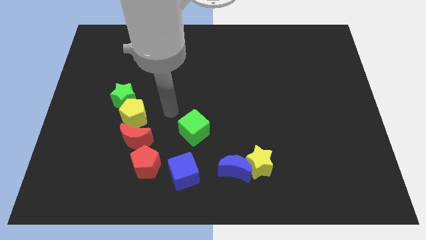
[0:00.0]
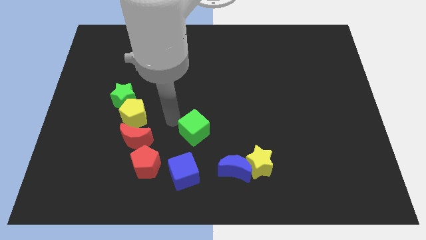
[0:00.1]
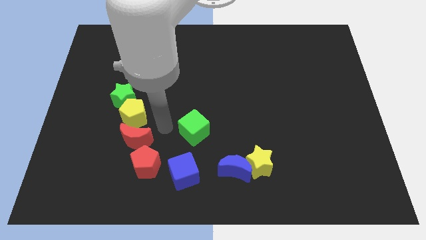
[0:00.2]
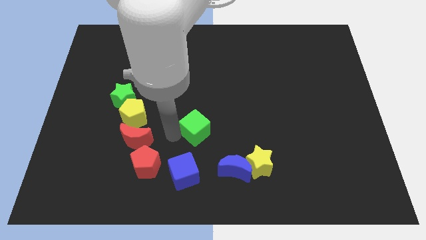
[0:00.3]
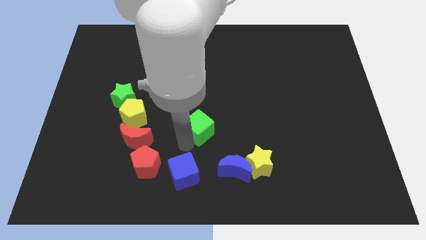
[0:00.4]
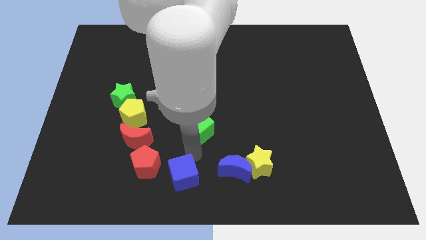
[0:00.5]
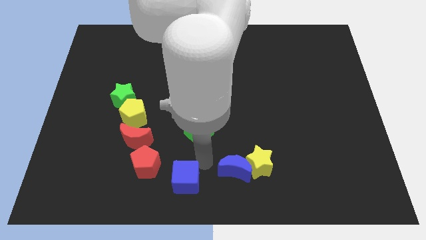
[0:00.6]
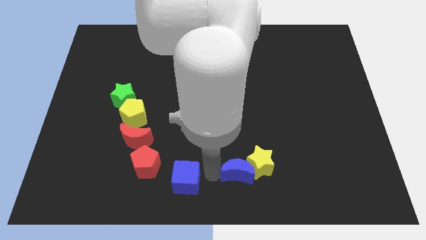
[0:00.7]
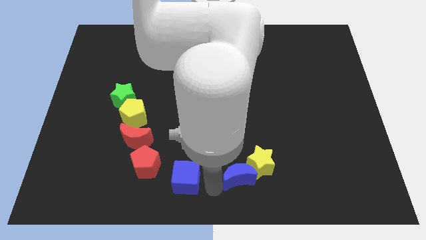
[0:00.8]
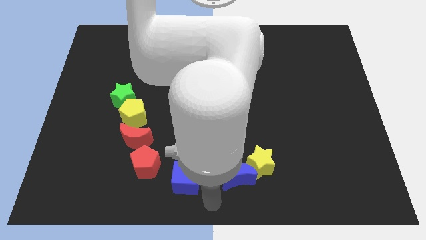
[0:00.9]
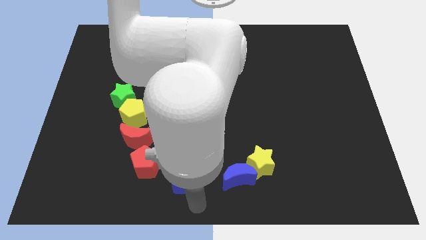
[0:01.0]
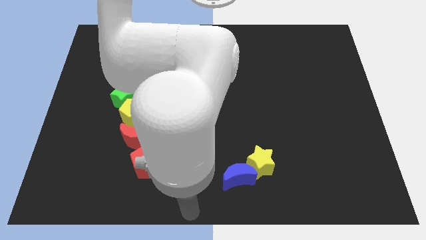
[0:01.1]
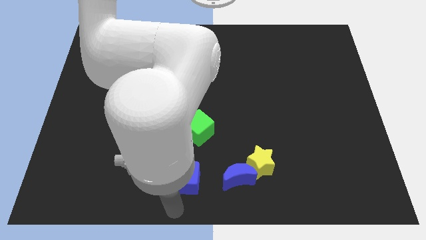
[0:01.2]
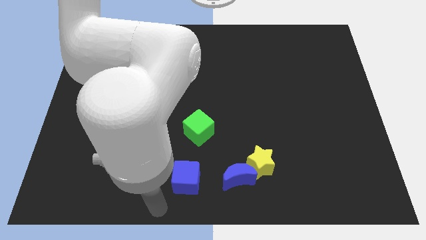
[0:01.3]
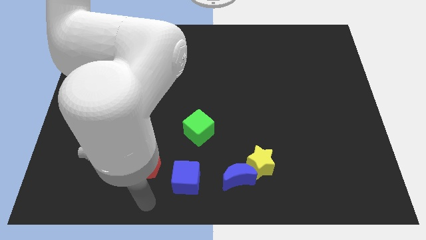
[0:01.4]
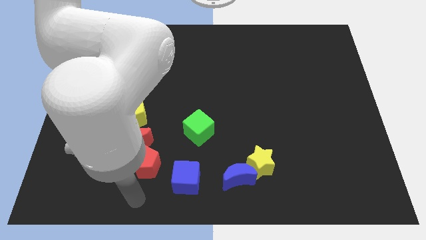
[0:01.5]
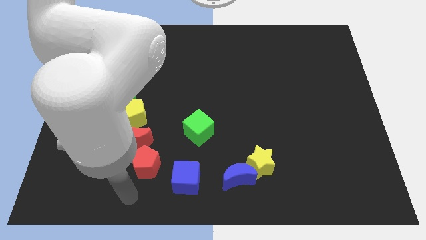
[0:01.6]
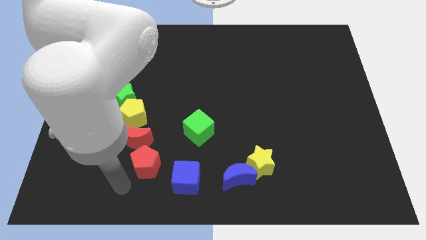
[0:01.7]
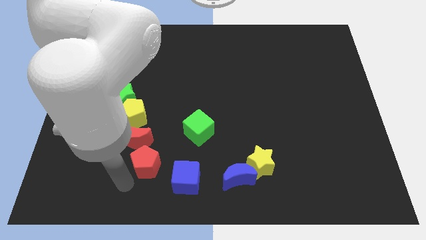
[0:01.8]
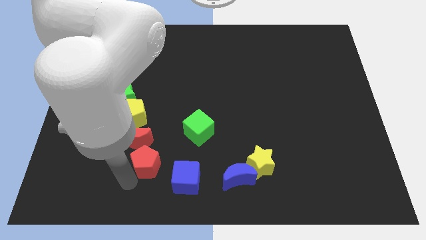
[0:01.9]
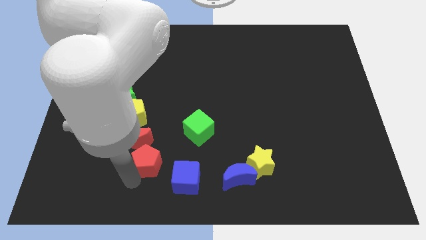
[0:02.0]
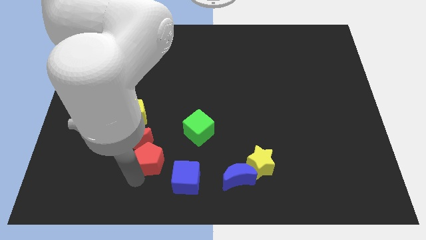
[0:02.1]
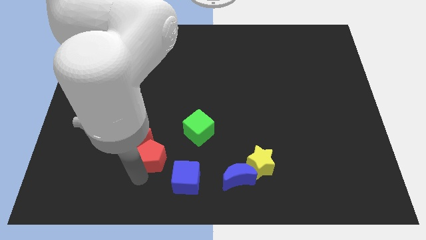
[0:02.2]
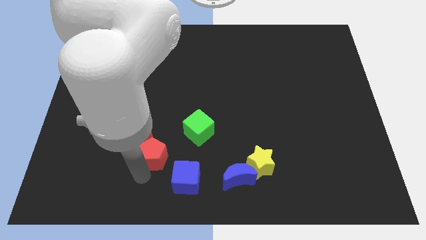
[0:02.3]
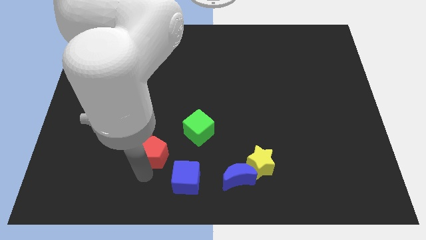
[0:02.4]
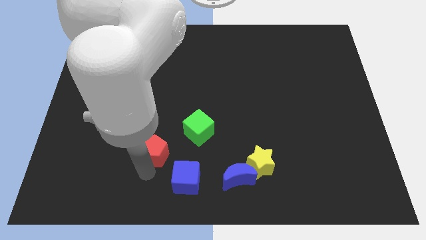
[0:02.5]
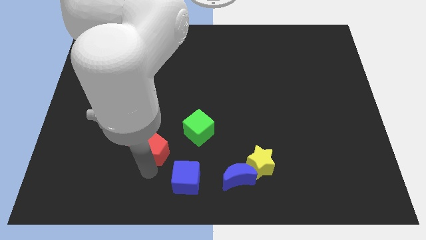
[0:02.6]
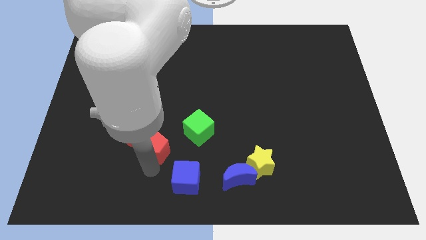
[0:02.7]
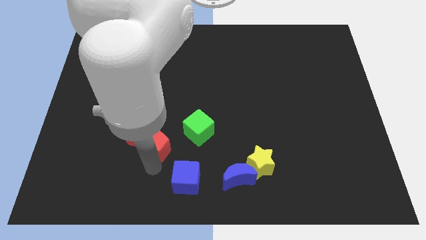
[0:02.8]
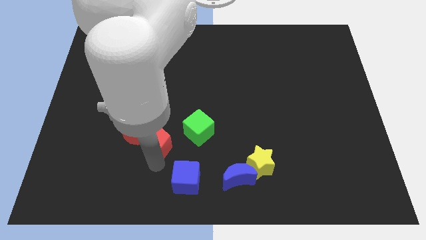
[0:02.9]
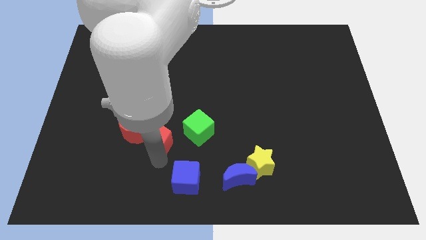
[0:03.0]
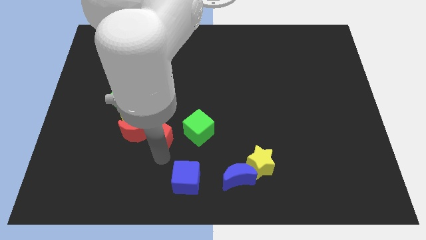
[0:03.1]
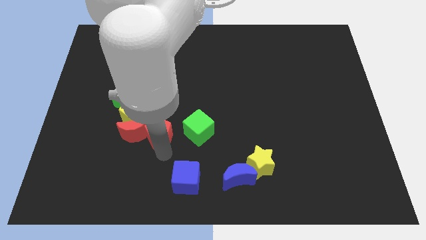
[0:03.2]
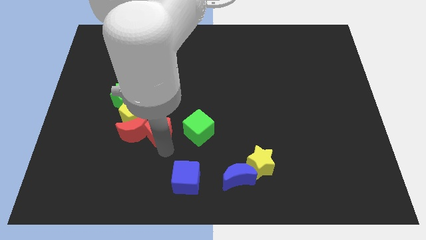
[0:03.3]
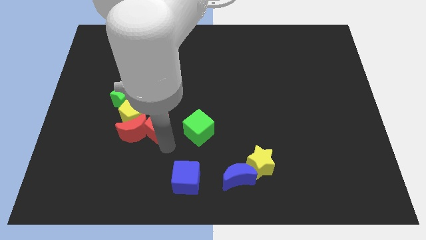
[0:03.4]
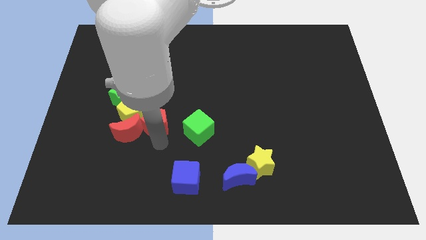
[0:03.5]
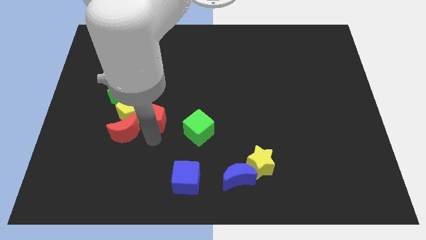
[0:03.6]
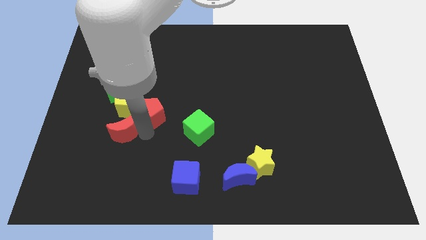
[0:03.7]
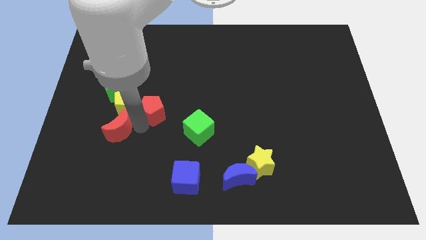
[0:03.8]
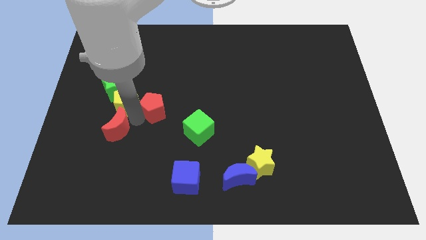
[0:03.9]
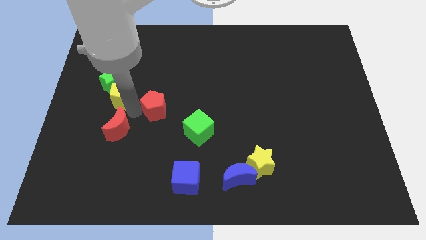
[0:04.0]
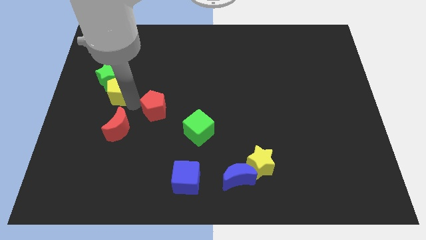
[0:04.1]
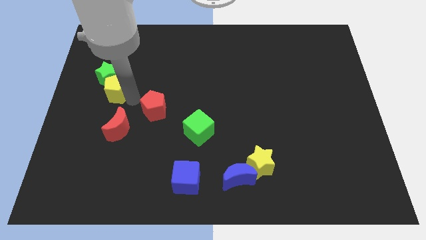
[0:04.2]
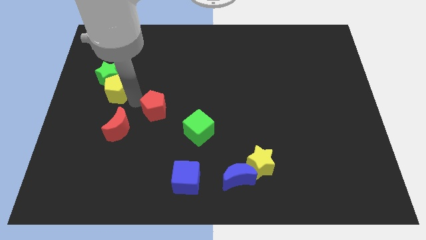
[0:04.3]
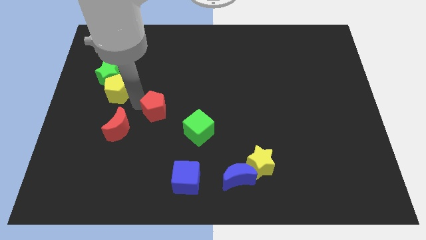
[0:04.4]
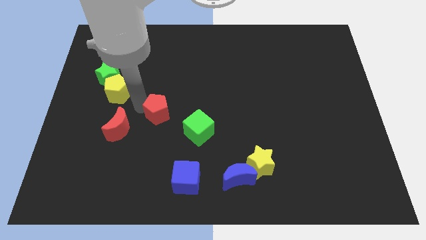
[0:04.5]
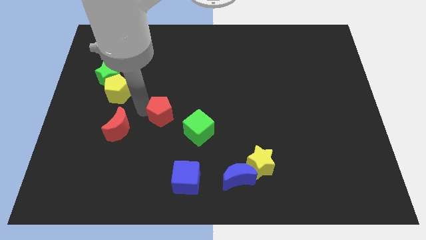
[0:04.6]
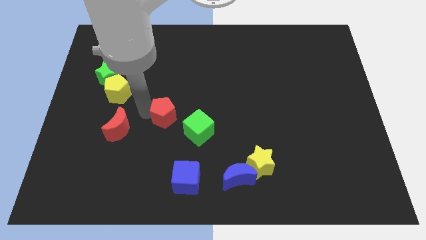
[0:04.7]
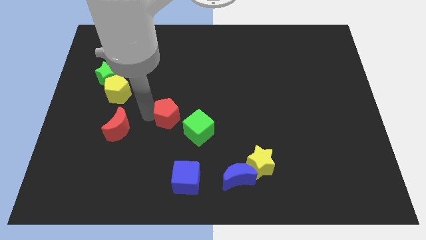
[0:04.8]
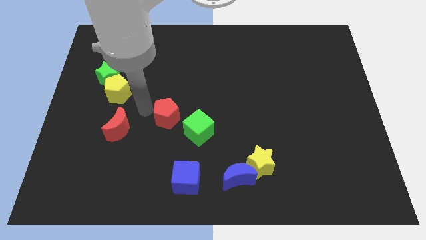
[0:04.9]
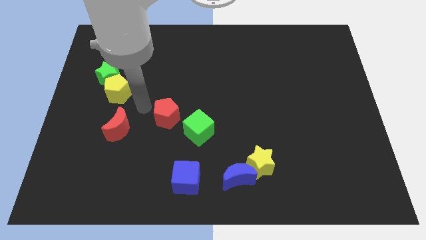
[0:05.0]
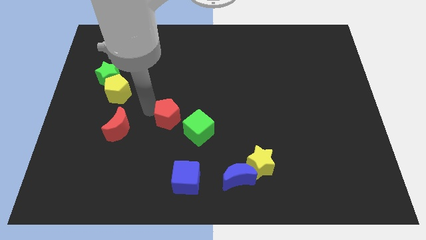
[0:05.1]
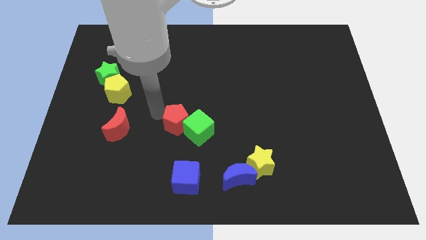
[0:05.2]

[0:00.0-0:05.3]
push the red pentagon next to the green cube

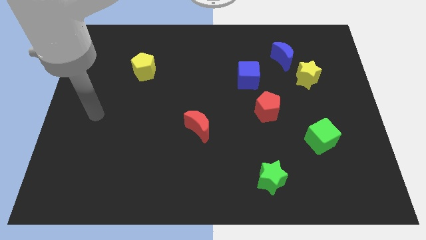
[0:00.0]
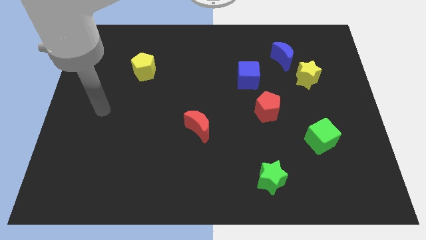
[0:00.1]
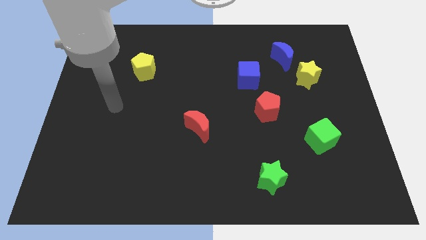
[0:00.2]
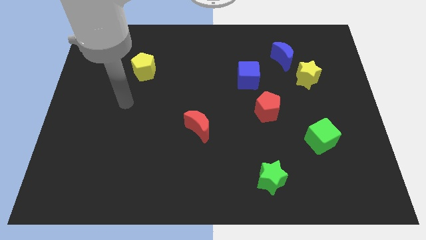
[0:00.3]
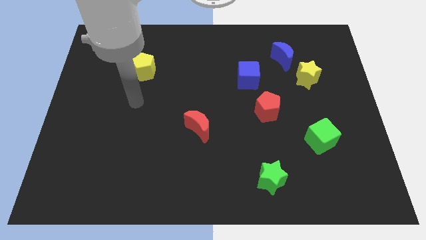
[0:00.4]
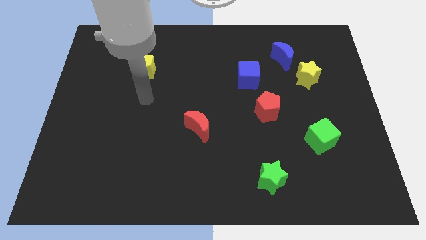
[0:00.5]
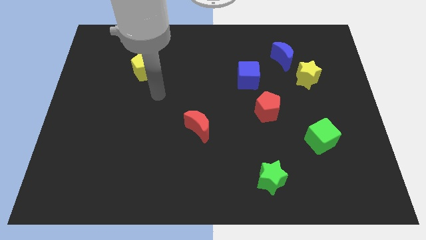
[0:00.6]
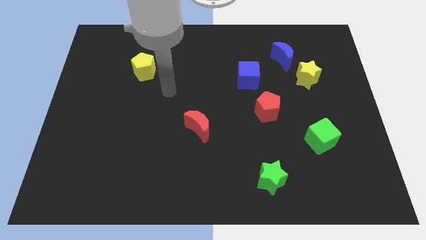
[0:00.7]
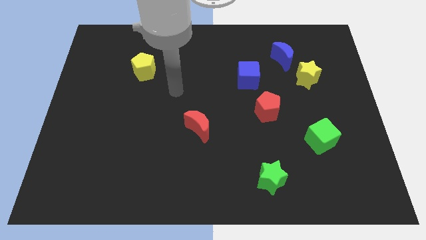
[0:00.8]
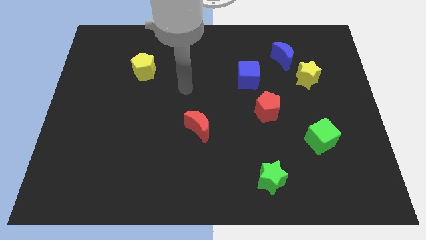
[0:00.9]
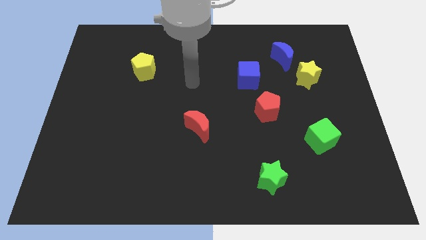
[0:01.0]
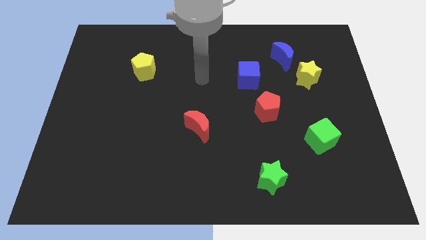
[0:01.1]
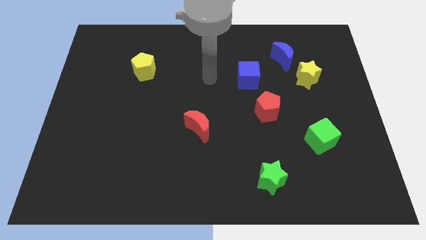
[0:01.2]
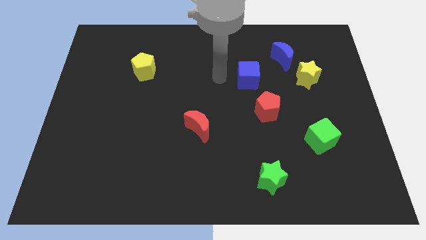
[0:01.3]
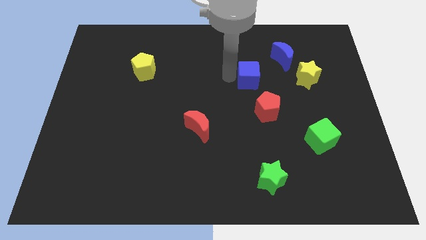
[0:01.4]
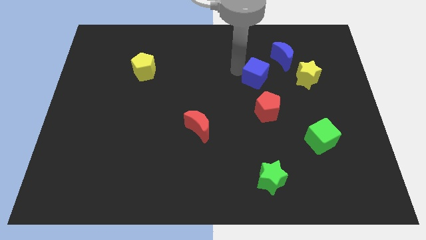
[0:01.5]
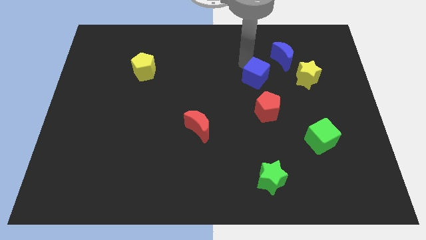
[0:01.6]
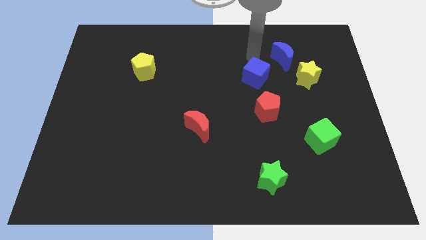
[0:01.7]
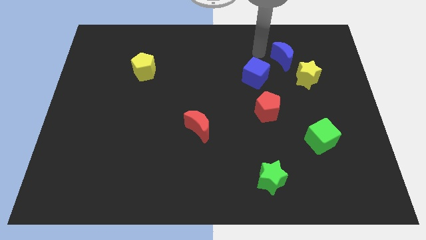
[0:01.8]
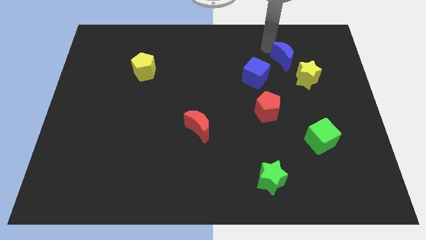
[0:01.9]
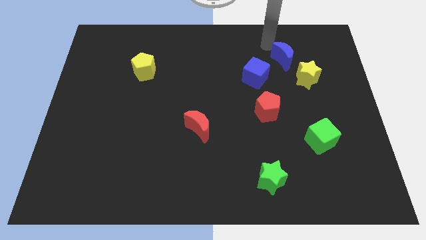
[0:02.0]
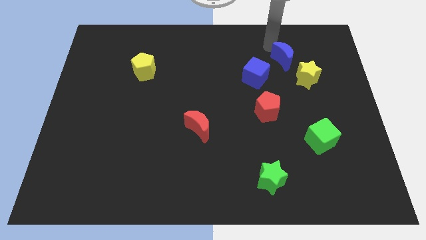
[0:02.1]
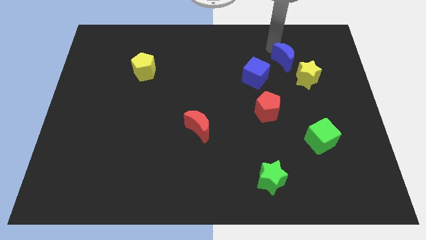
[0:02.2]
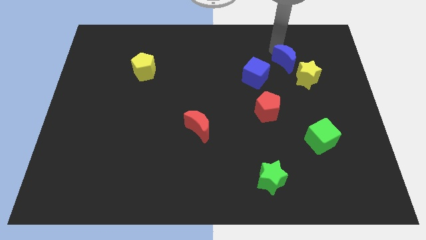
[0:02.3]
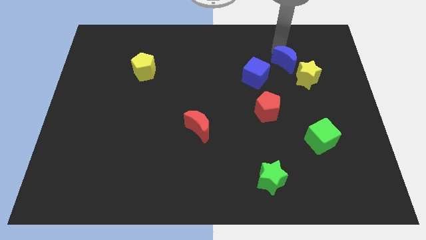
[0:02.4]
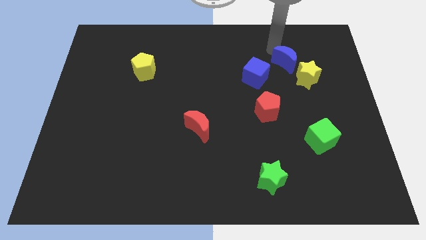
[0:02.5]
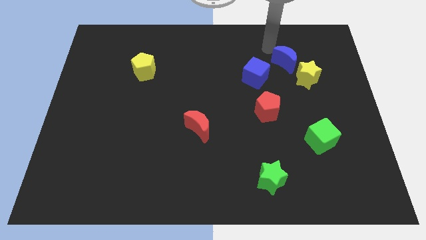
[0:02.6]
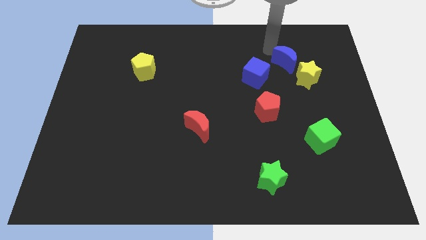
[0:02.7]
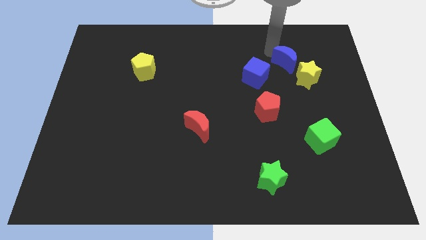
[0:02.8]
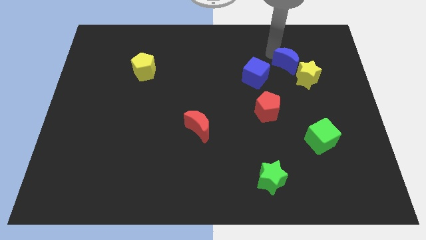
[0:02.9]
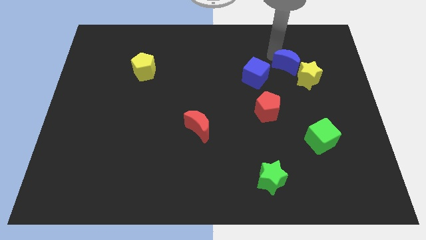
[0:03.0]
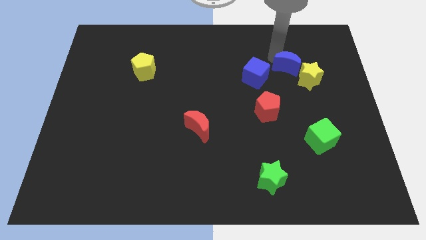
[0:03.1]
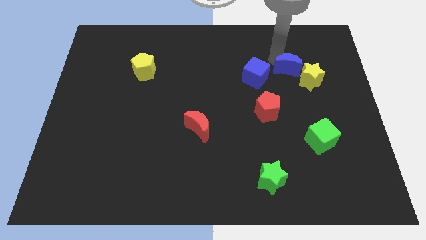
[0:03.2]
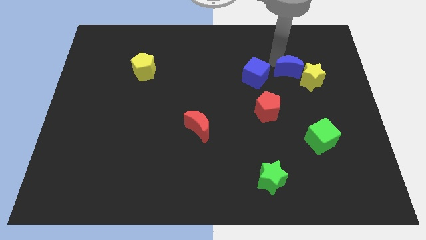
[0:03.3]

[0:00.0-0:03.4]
put the blue moon towards the yellow star
